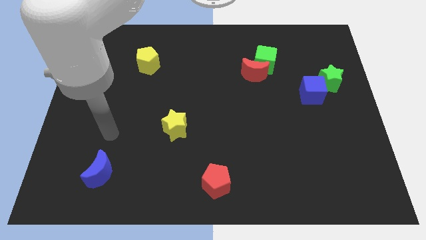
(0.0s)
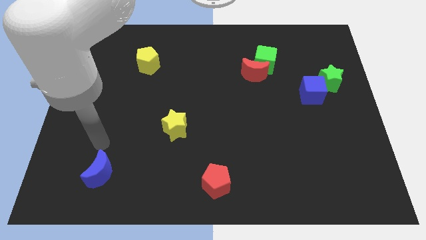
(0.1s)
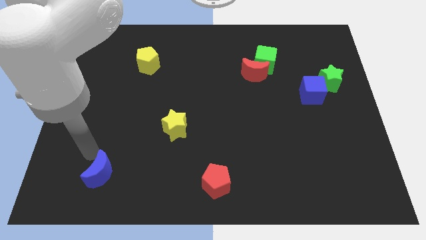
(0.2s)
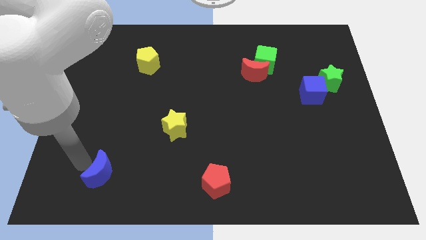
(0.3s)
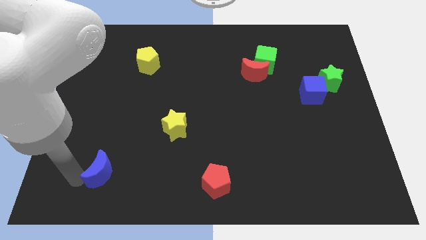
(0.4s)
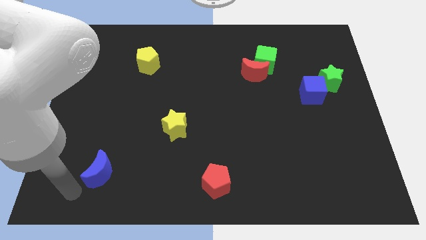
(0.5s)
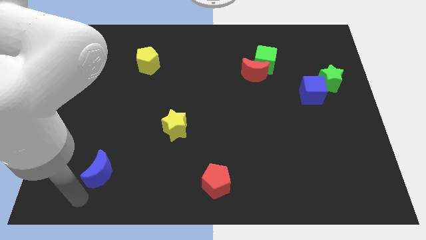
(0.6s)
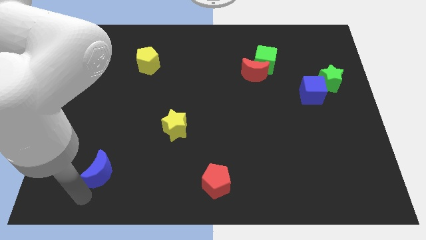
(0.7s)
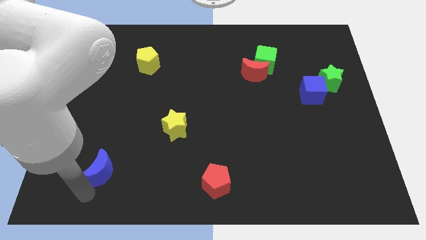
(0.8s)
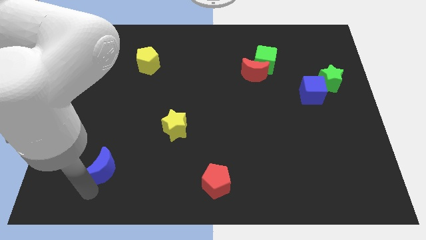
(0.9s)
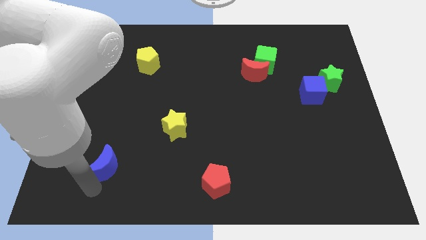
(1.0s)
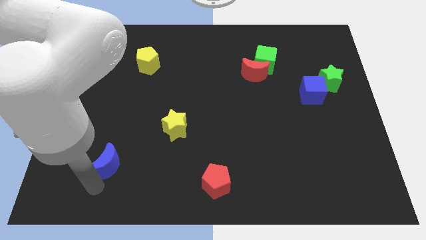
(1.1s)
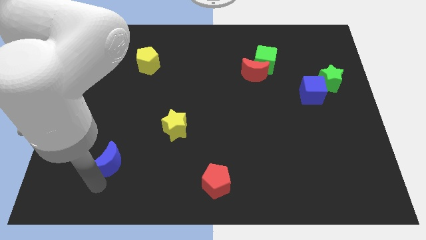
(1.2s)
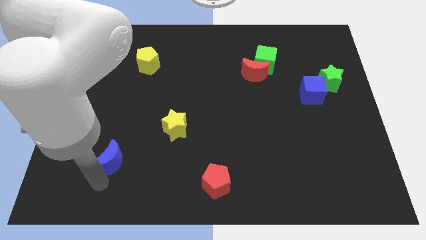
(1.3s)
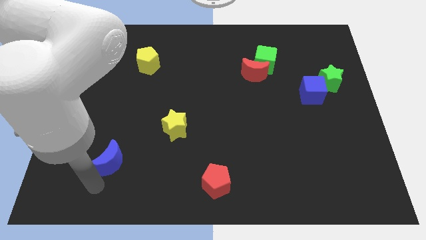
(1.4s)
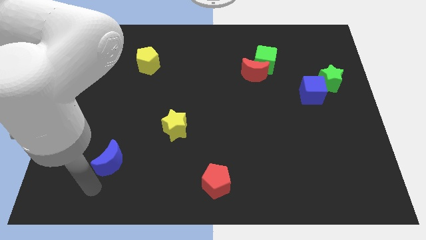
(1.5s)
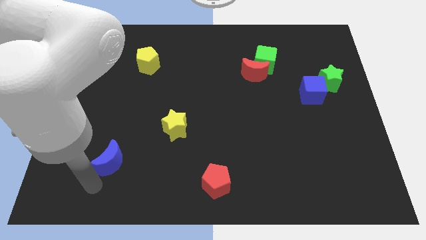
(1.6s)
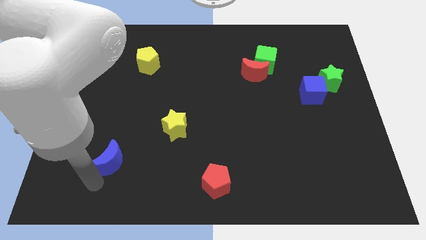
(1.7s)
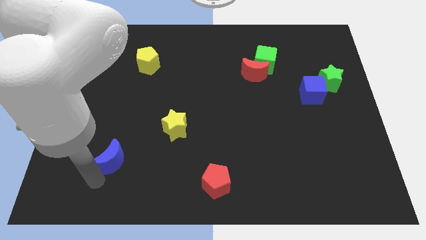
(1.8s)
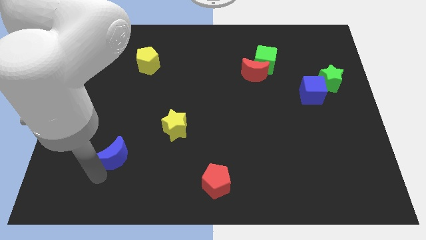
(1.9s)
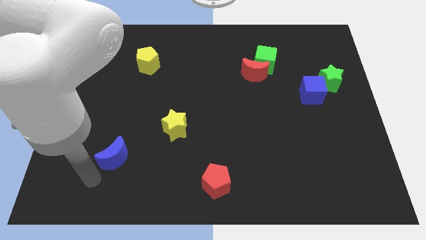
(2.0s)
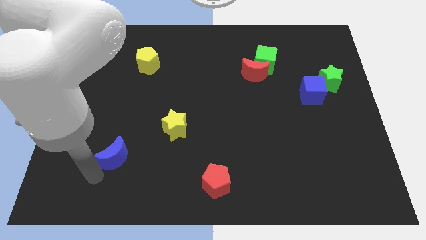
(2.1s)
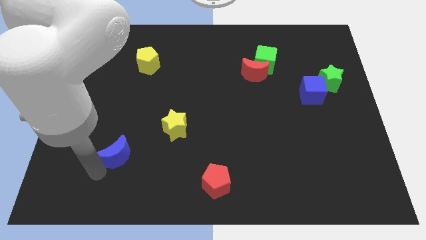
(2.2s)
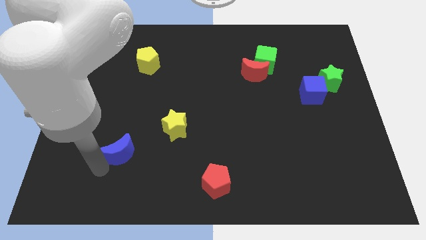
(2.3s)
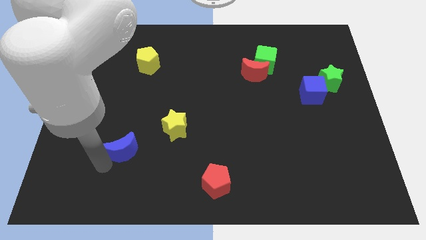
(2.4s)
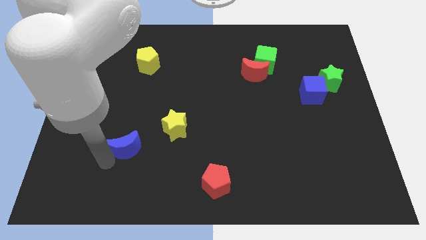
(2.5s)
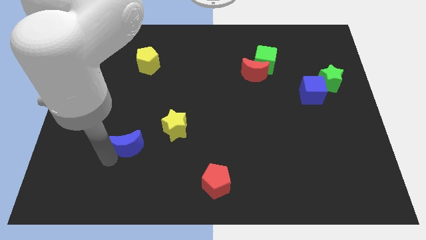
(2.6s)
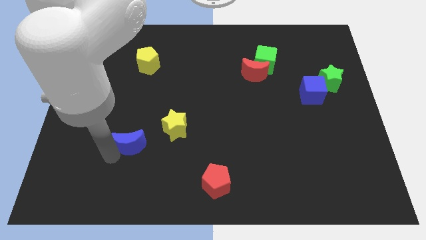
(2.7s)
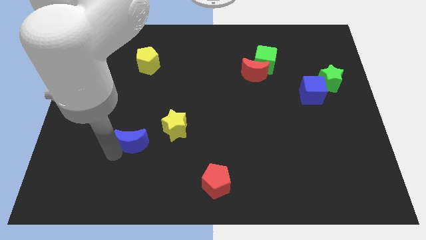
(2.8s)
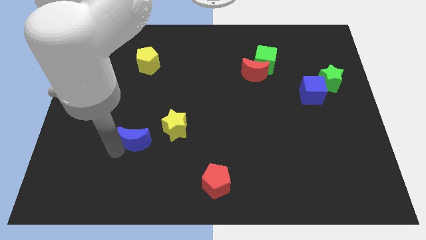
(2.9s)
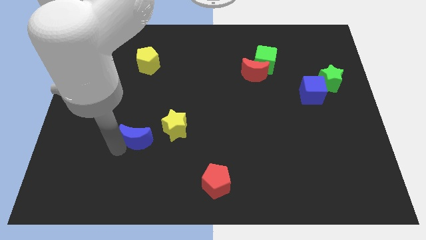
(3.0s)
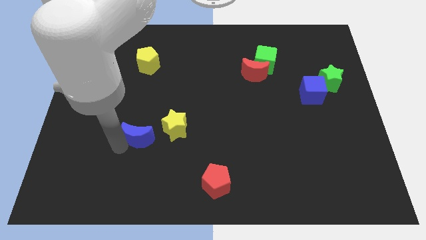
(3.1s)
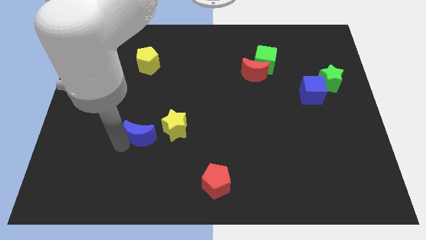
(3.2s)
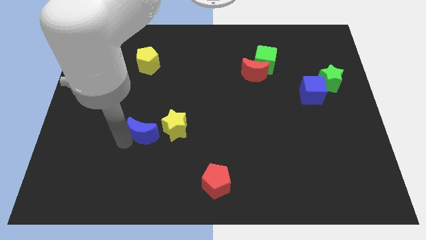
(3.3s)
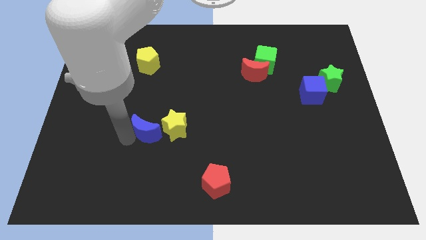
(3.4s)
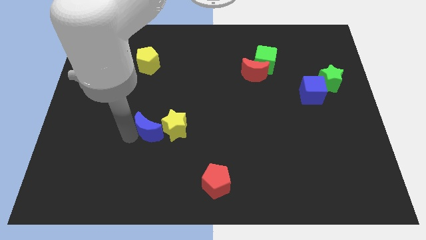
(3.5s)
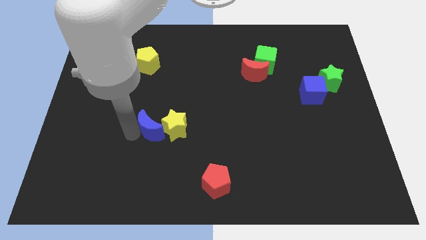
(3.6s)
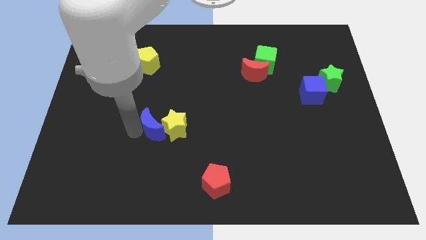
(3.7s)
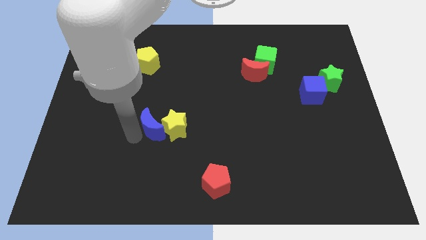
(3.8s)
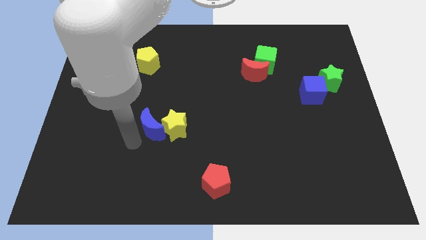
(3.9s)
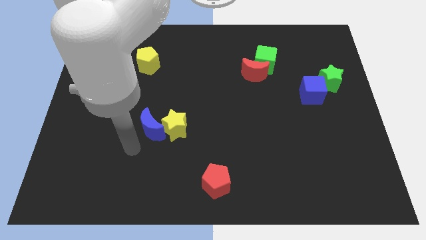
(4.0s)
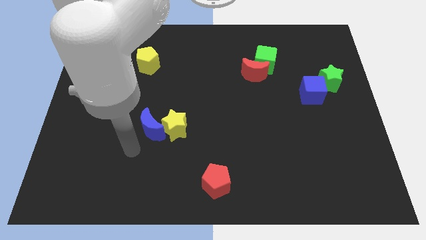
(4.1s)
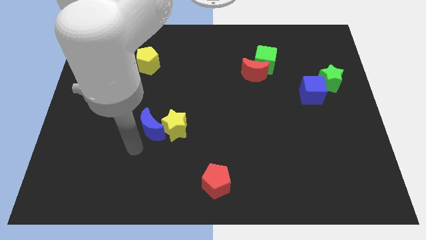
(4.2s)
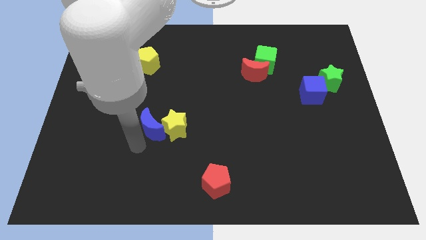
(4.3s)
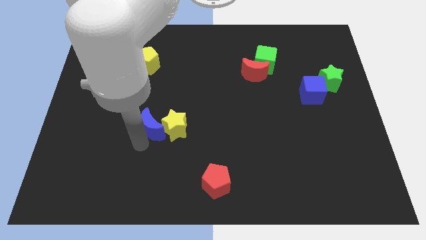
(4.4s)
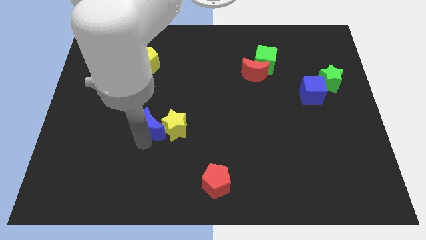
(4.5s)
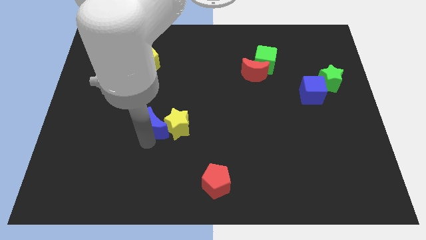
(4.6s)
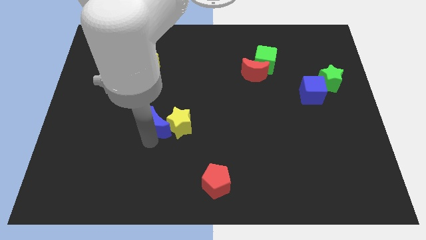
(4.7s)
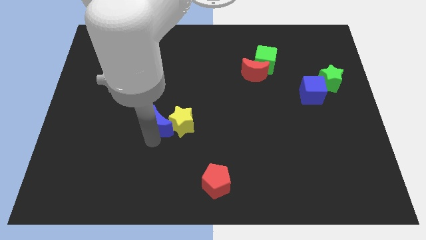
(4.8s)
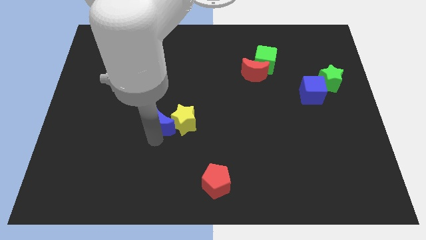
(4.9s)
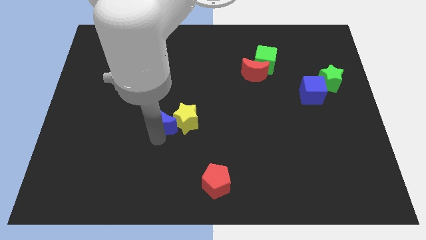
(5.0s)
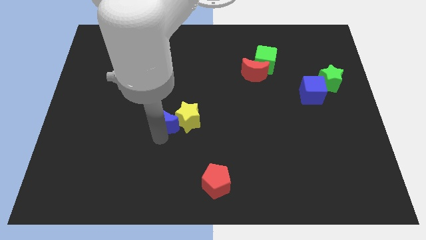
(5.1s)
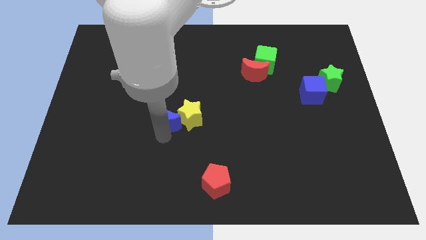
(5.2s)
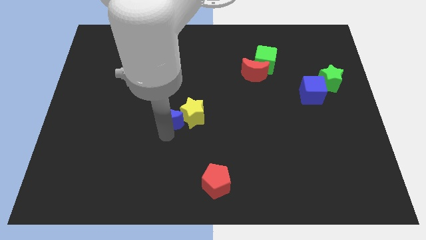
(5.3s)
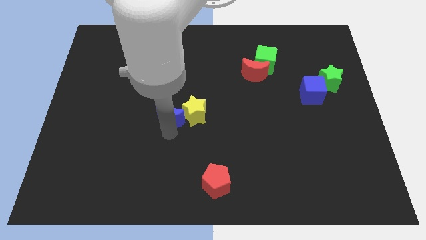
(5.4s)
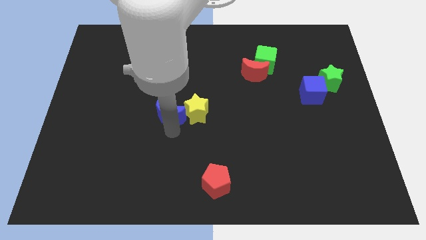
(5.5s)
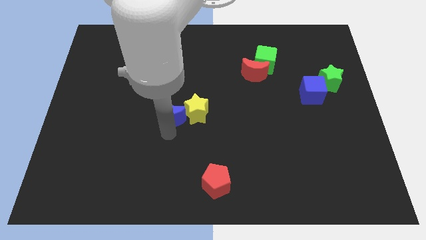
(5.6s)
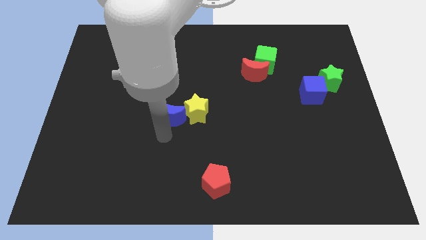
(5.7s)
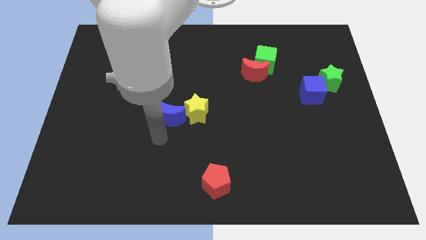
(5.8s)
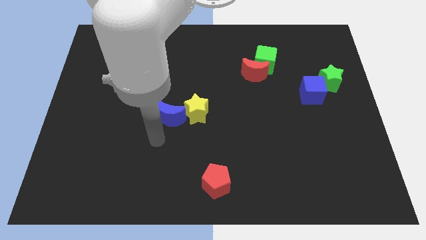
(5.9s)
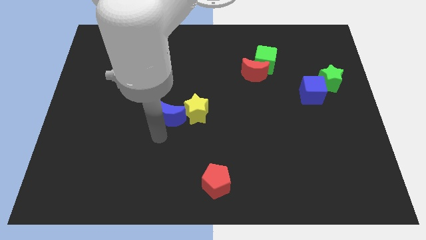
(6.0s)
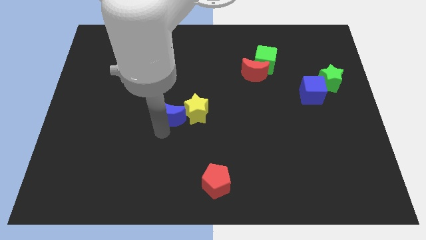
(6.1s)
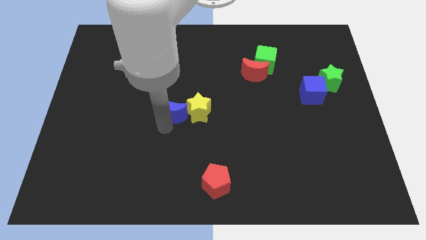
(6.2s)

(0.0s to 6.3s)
move the blue moon up and right

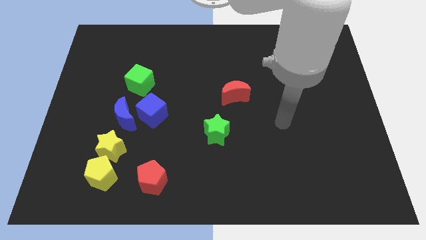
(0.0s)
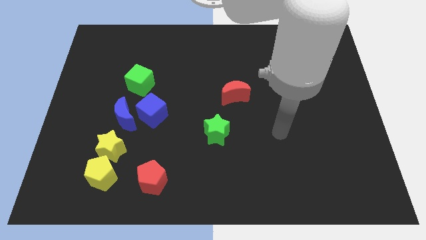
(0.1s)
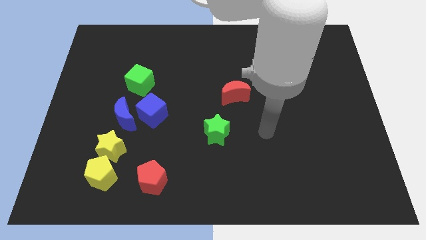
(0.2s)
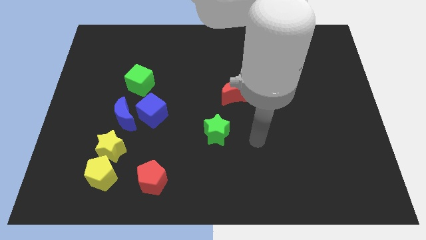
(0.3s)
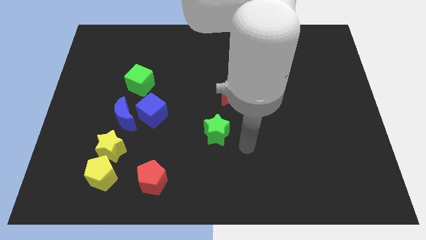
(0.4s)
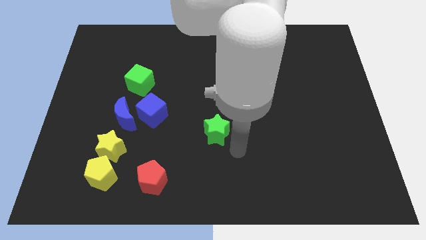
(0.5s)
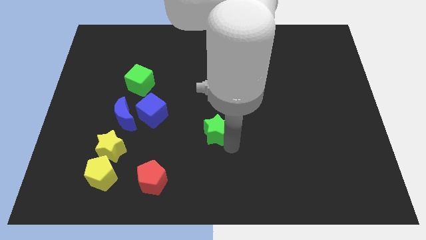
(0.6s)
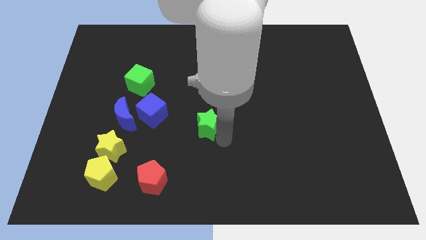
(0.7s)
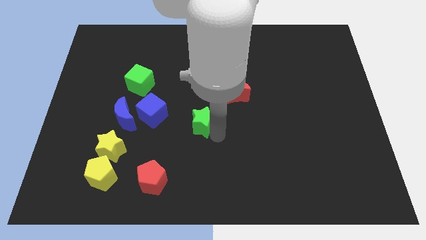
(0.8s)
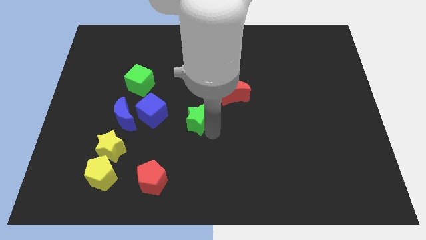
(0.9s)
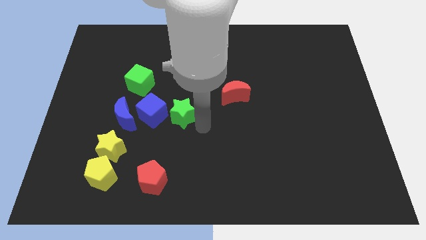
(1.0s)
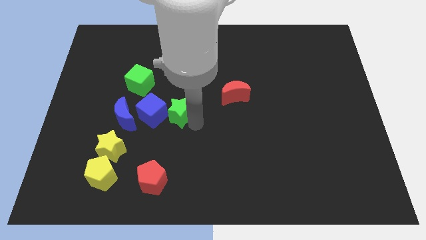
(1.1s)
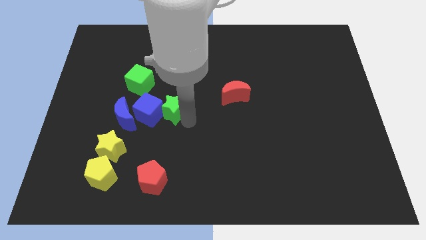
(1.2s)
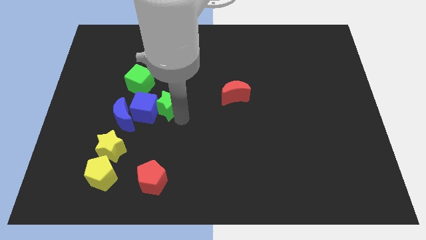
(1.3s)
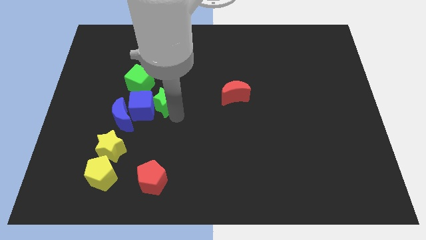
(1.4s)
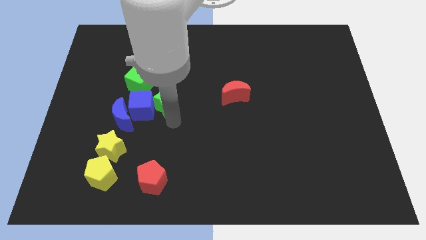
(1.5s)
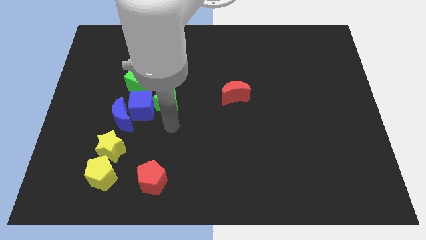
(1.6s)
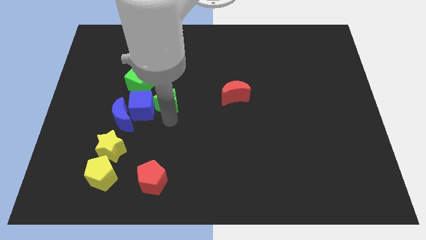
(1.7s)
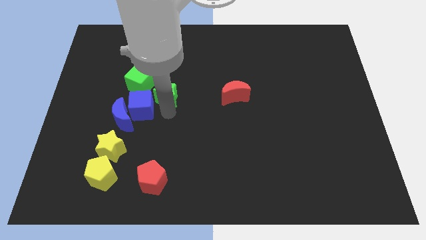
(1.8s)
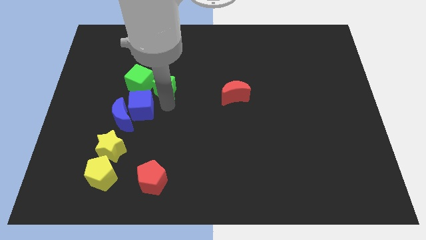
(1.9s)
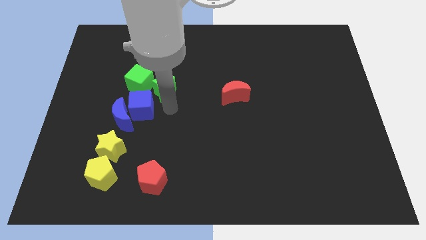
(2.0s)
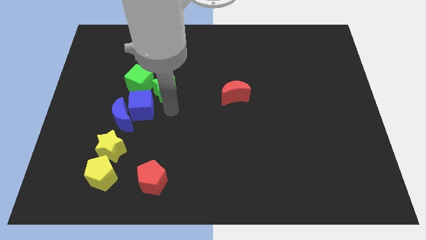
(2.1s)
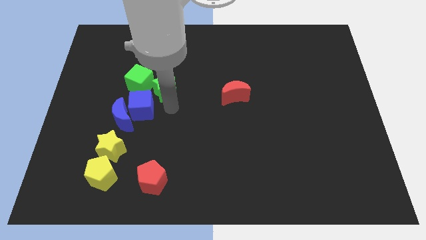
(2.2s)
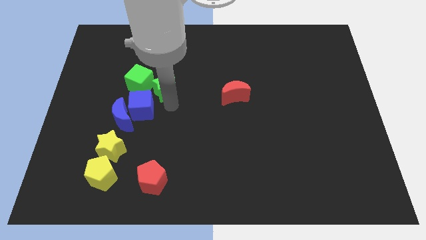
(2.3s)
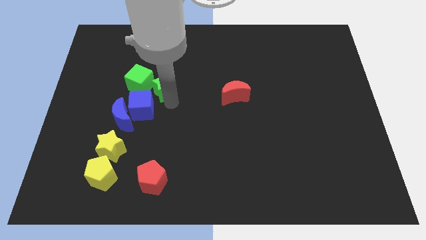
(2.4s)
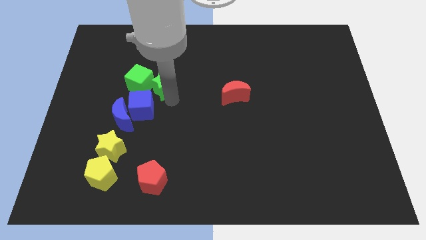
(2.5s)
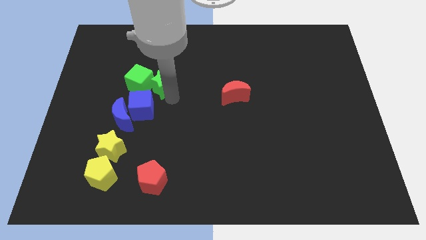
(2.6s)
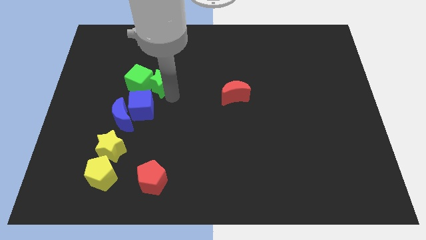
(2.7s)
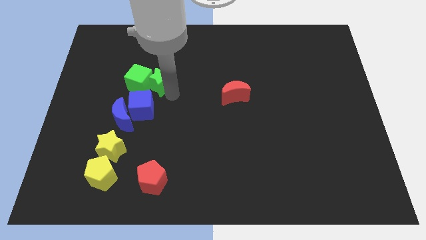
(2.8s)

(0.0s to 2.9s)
move the green star upwards and to the left diagonally
